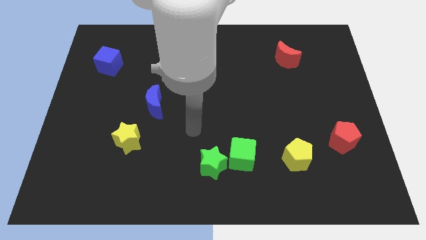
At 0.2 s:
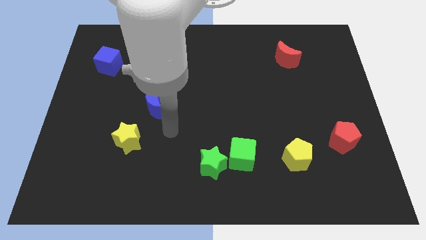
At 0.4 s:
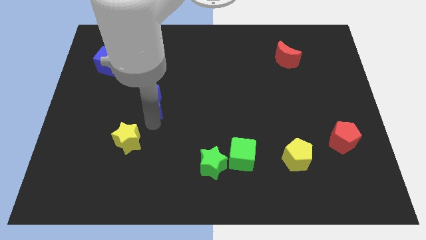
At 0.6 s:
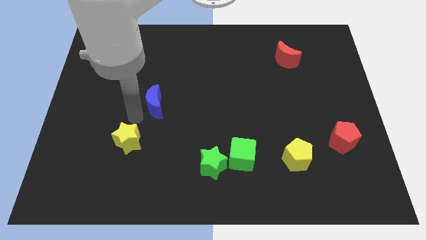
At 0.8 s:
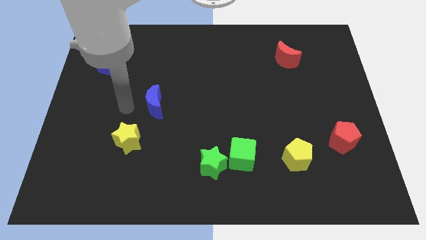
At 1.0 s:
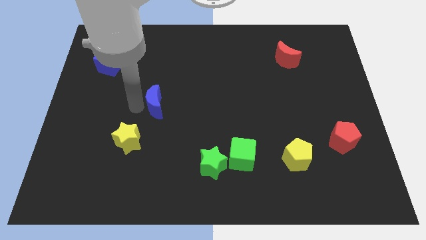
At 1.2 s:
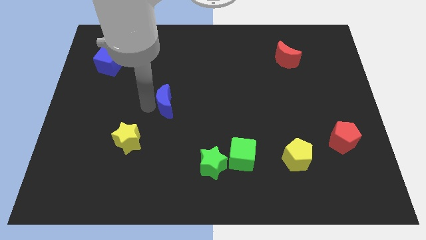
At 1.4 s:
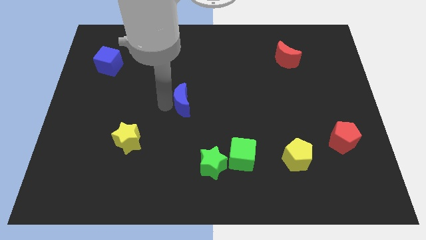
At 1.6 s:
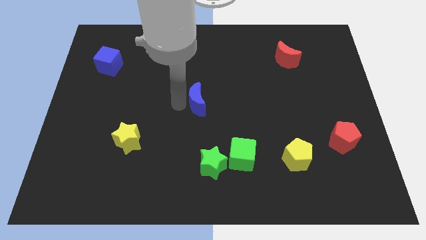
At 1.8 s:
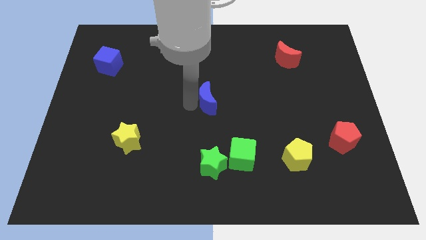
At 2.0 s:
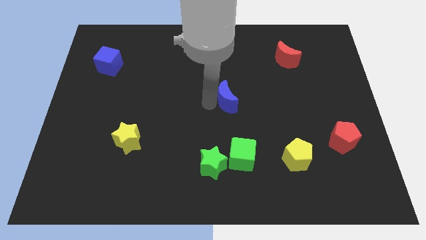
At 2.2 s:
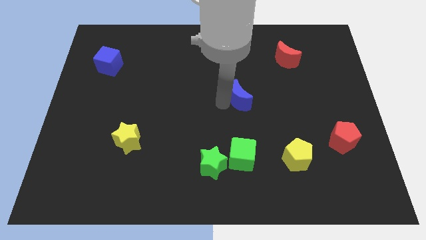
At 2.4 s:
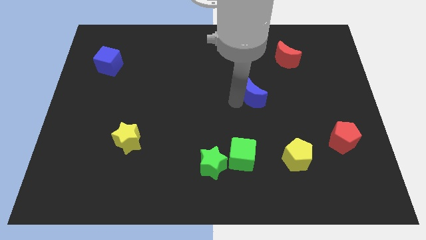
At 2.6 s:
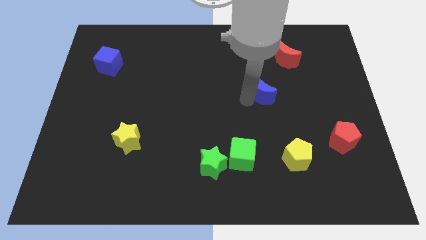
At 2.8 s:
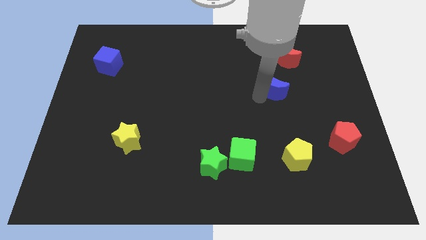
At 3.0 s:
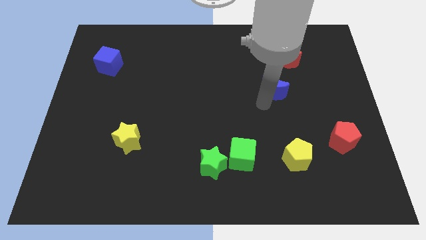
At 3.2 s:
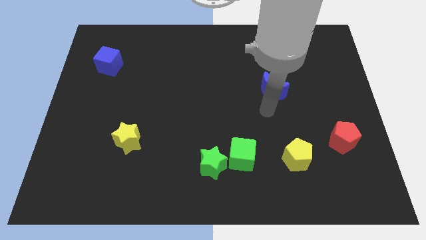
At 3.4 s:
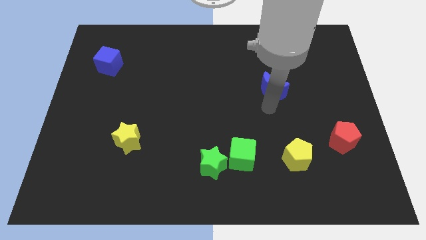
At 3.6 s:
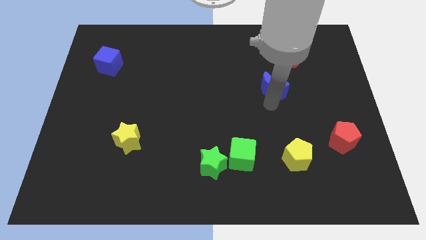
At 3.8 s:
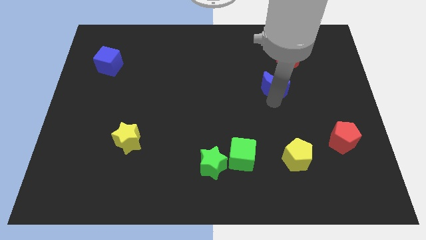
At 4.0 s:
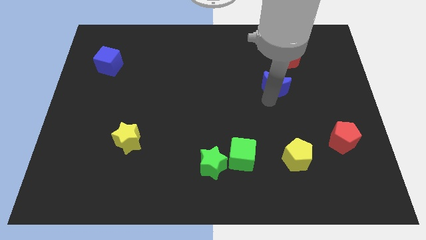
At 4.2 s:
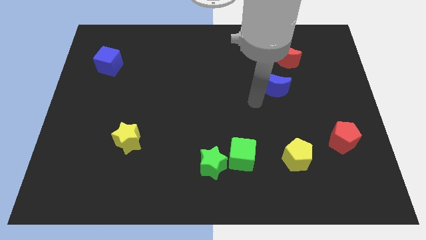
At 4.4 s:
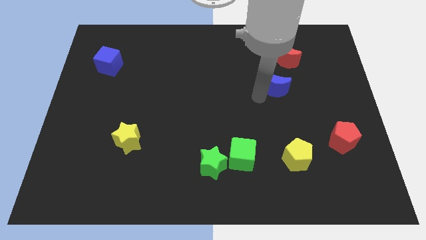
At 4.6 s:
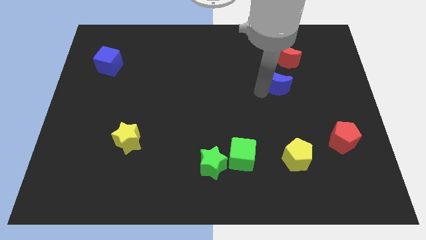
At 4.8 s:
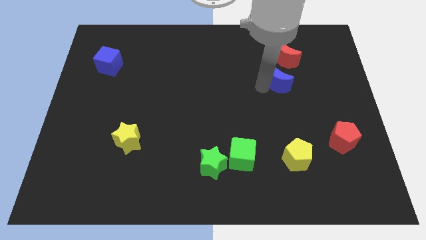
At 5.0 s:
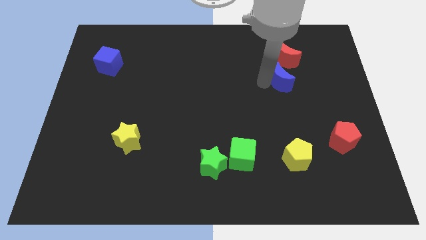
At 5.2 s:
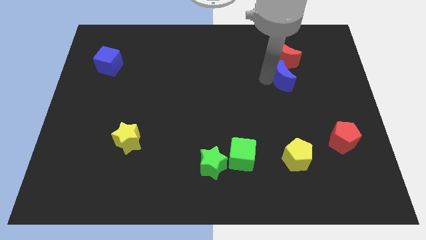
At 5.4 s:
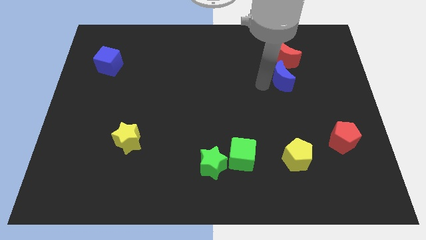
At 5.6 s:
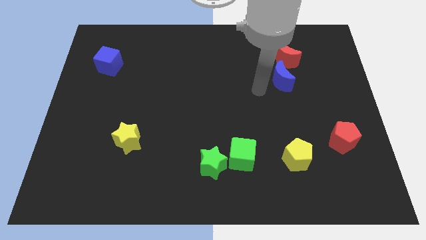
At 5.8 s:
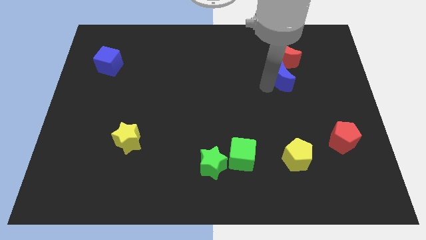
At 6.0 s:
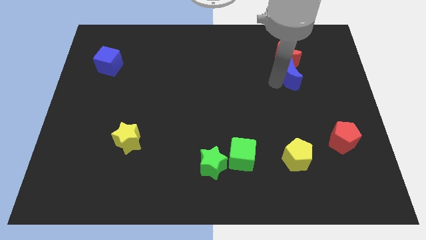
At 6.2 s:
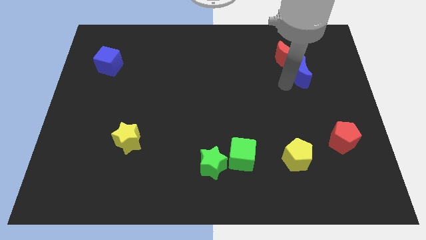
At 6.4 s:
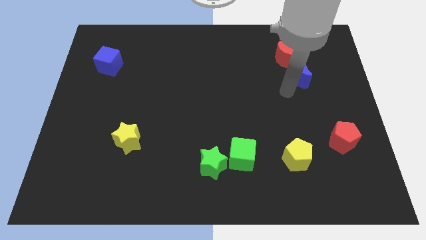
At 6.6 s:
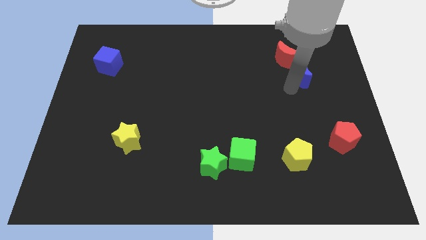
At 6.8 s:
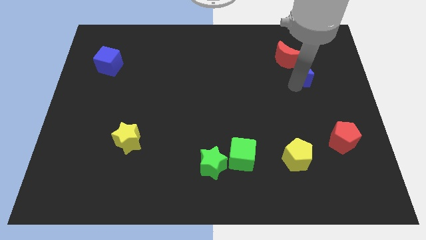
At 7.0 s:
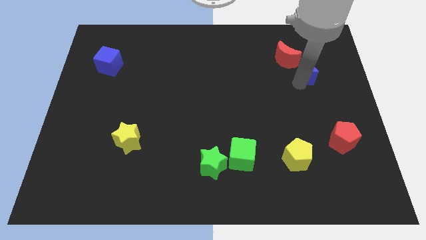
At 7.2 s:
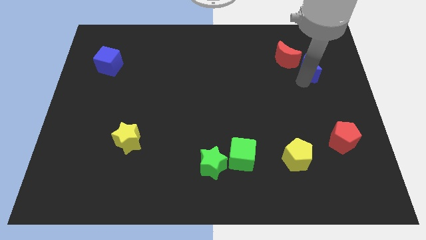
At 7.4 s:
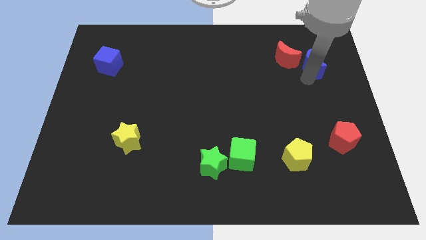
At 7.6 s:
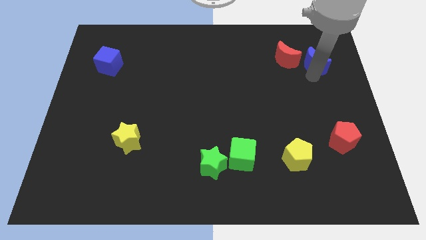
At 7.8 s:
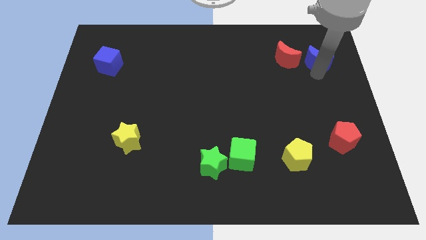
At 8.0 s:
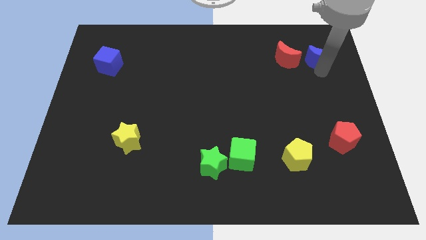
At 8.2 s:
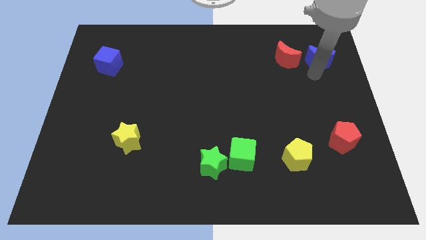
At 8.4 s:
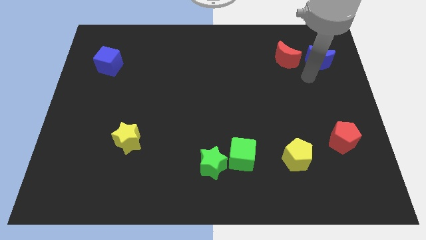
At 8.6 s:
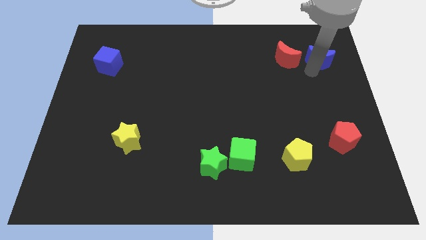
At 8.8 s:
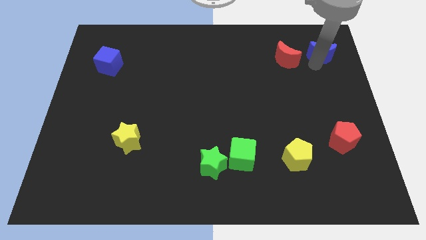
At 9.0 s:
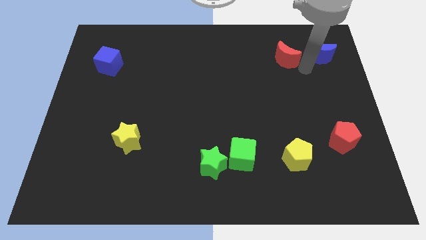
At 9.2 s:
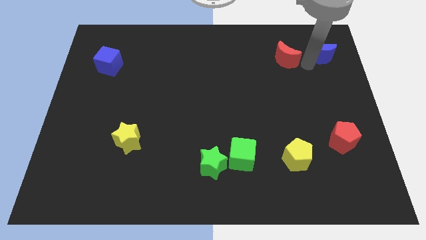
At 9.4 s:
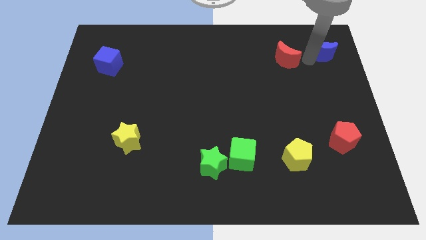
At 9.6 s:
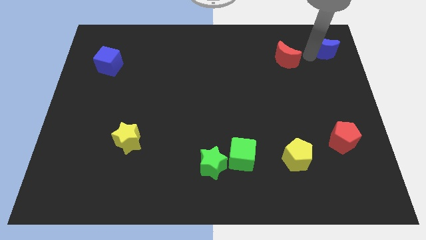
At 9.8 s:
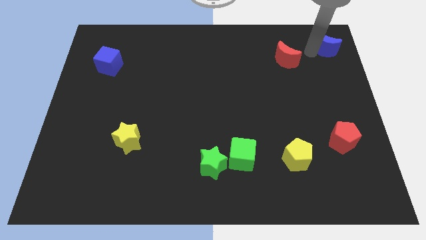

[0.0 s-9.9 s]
move the blue moon to the top right of the board

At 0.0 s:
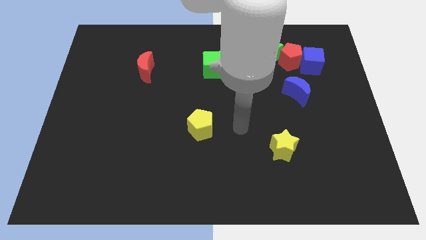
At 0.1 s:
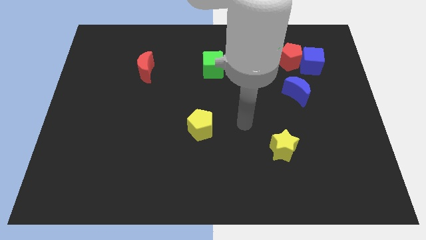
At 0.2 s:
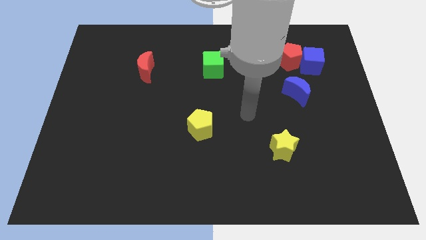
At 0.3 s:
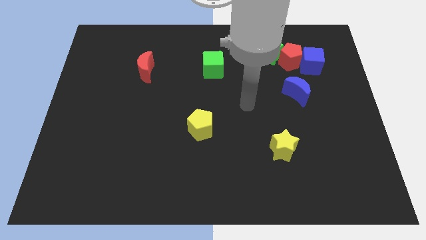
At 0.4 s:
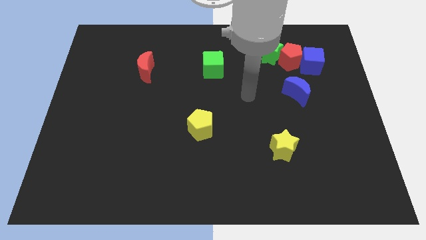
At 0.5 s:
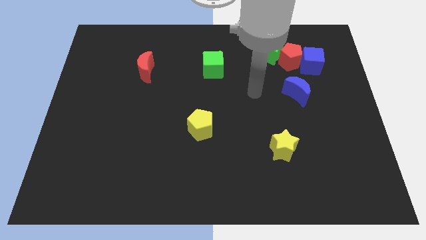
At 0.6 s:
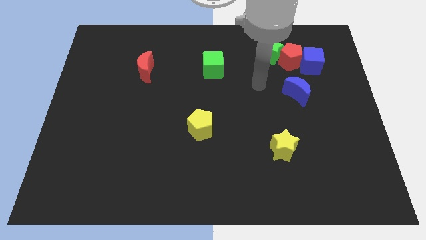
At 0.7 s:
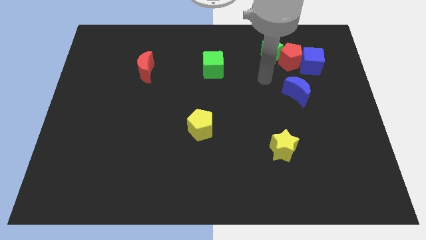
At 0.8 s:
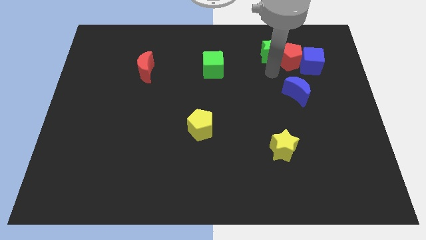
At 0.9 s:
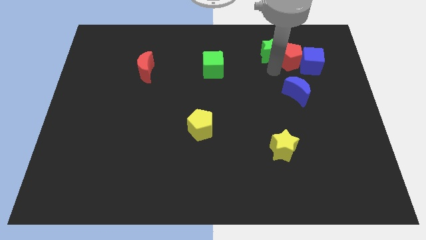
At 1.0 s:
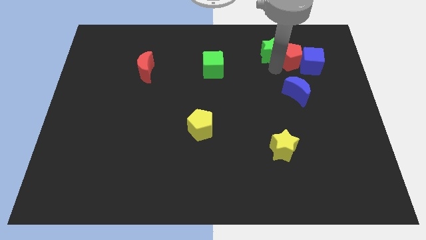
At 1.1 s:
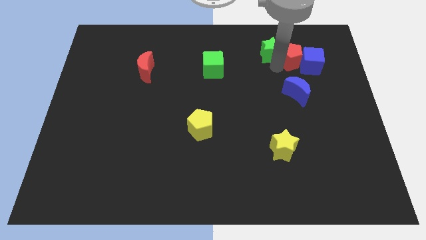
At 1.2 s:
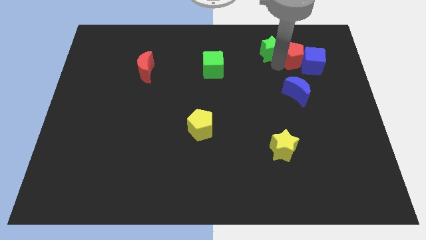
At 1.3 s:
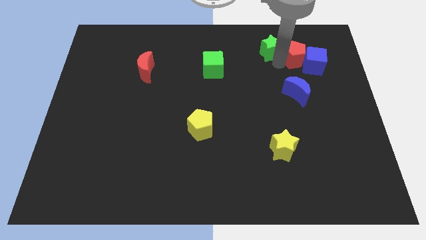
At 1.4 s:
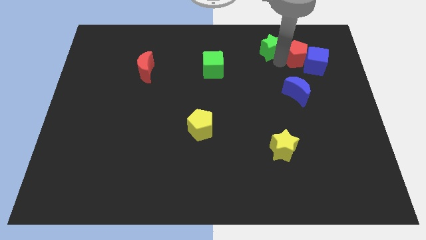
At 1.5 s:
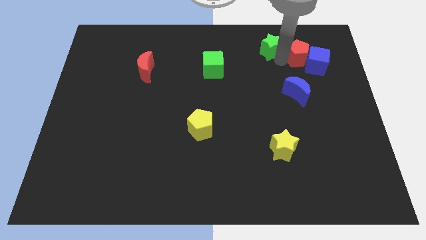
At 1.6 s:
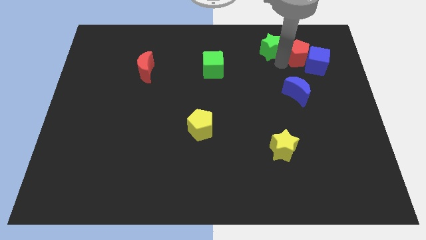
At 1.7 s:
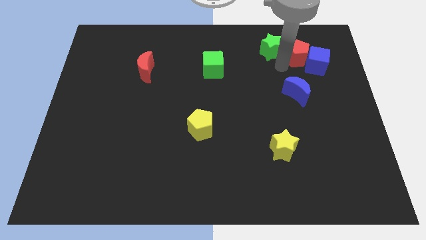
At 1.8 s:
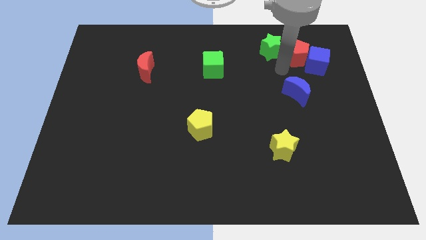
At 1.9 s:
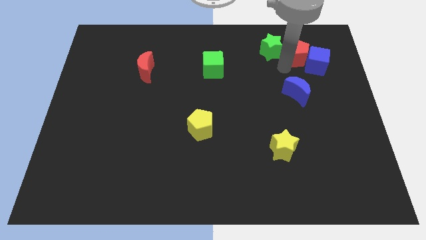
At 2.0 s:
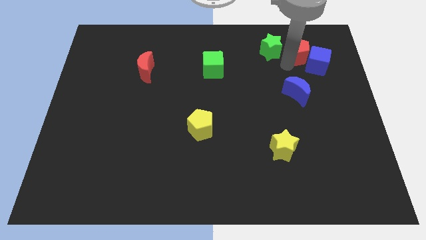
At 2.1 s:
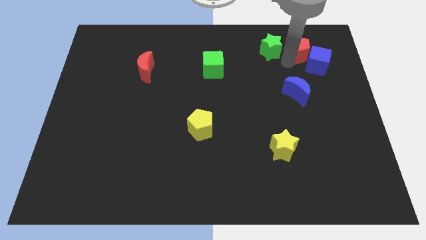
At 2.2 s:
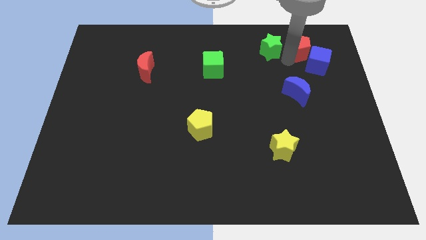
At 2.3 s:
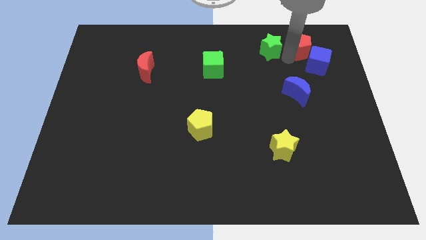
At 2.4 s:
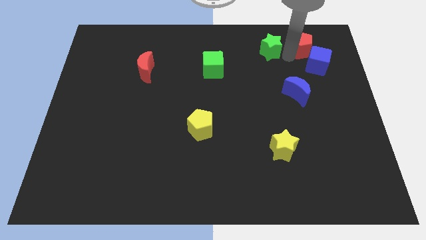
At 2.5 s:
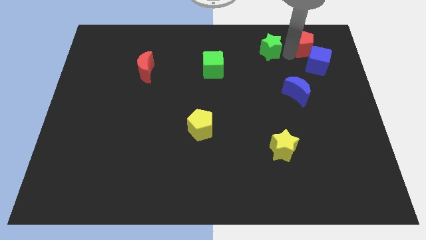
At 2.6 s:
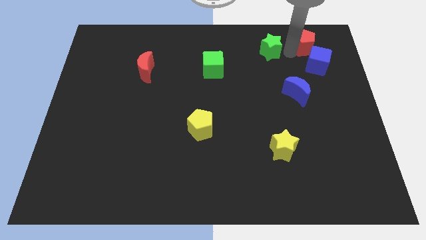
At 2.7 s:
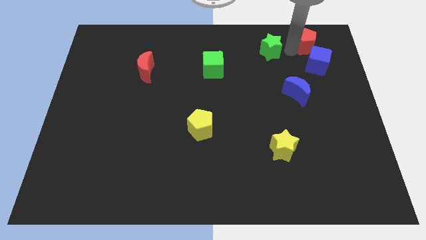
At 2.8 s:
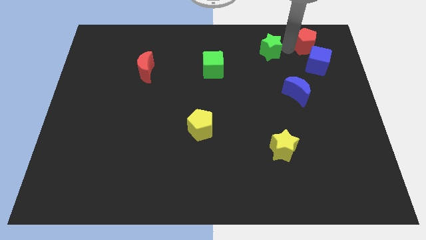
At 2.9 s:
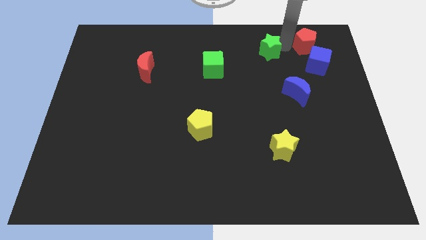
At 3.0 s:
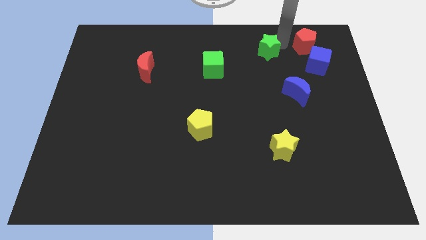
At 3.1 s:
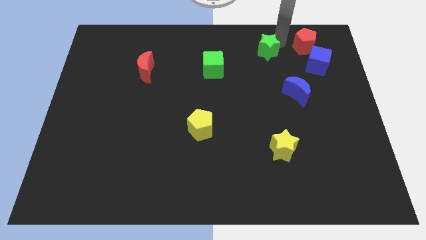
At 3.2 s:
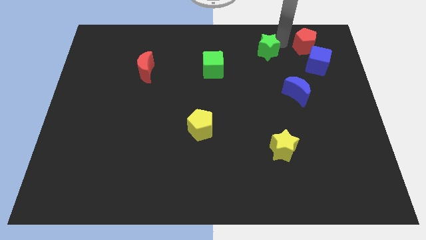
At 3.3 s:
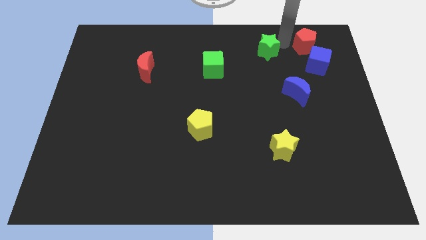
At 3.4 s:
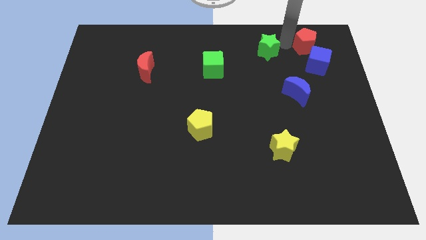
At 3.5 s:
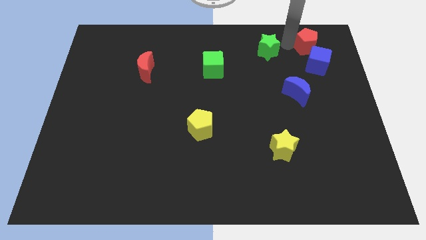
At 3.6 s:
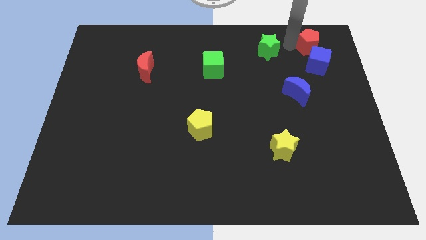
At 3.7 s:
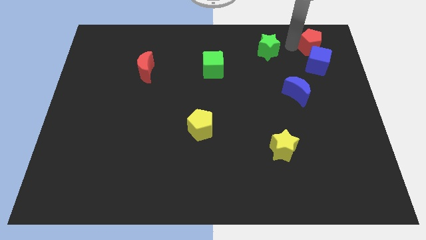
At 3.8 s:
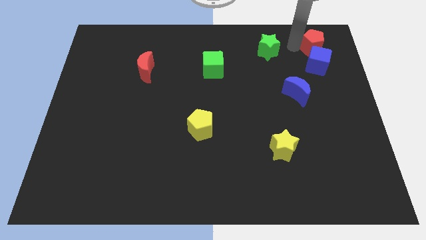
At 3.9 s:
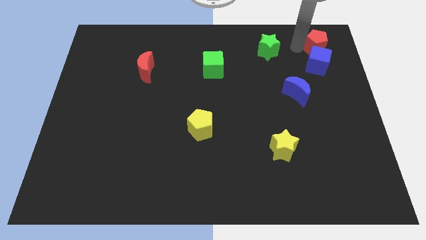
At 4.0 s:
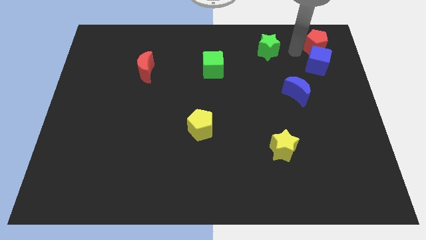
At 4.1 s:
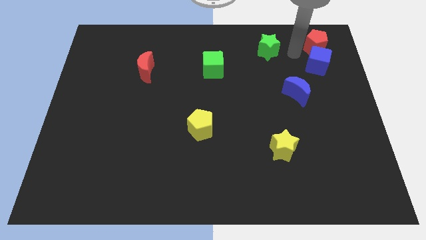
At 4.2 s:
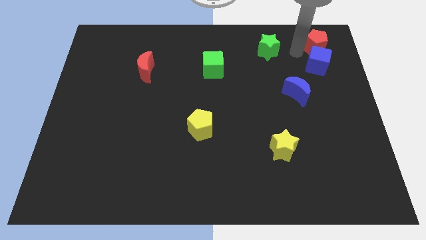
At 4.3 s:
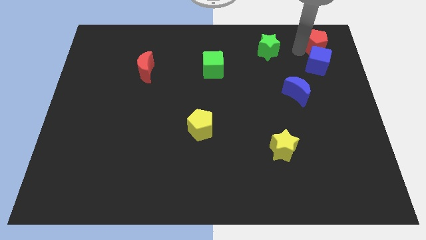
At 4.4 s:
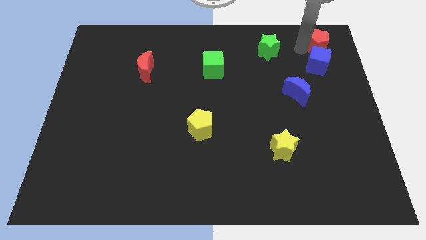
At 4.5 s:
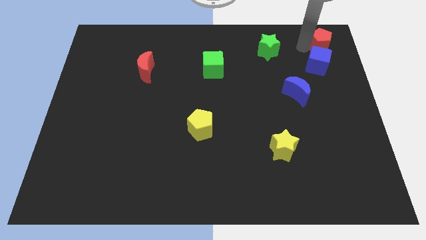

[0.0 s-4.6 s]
slide the red pentagon to the top right
